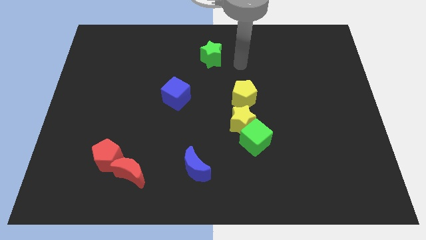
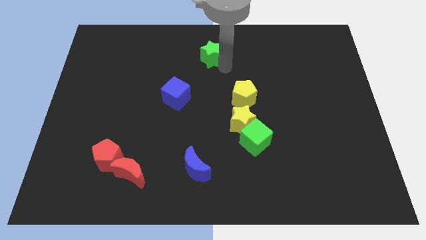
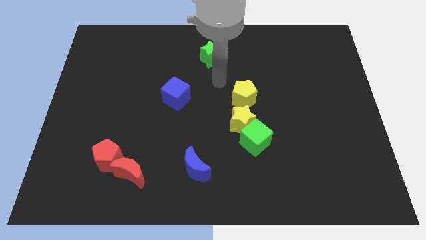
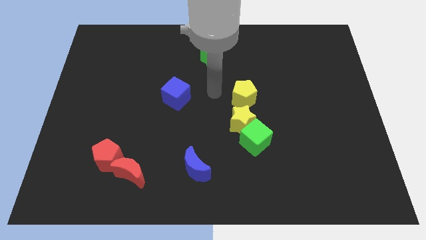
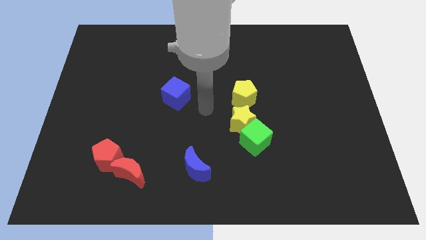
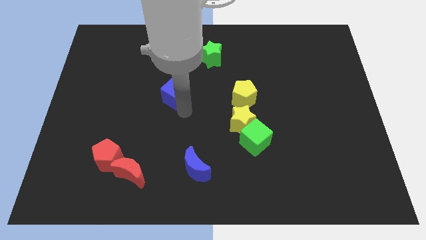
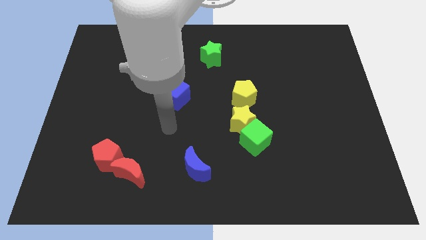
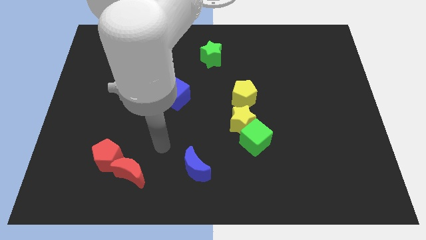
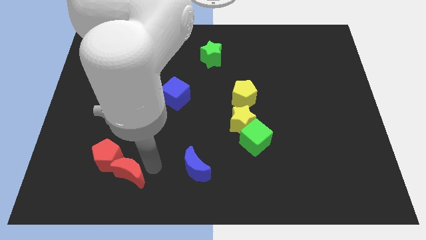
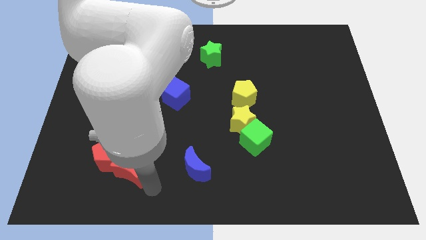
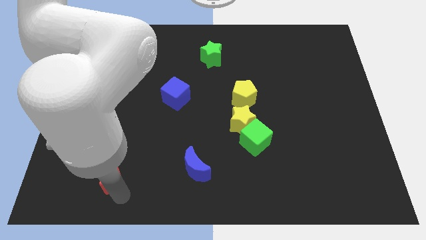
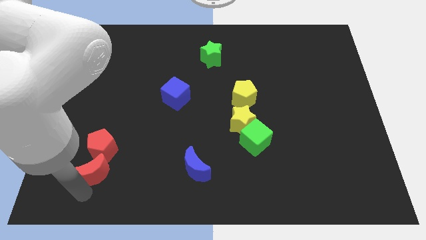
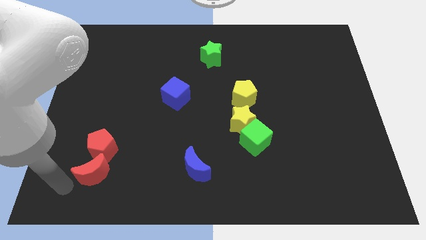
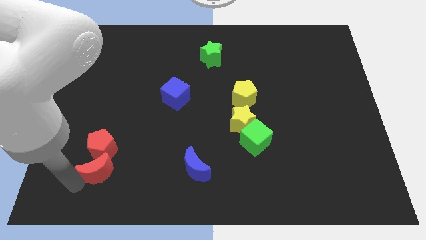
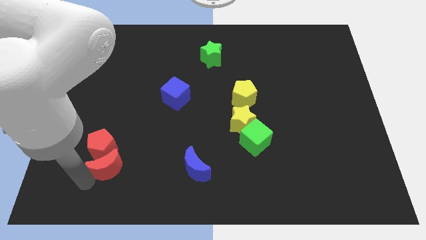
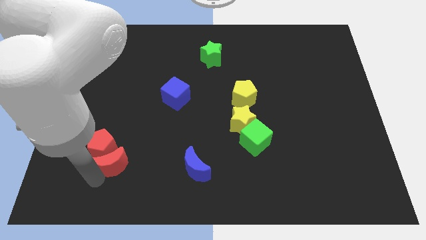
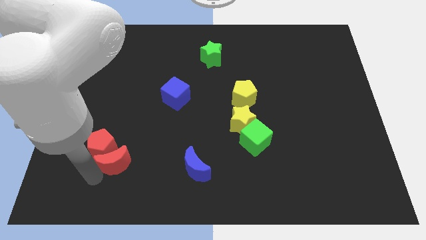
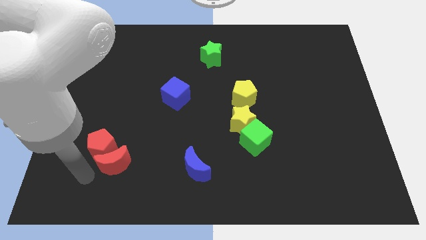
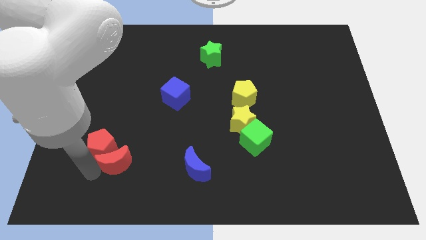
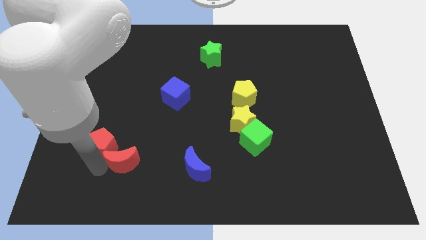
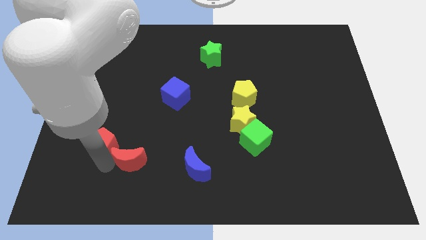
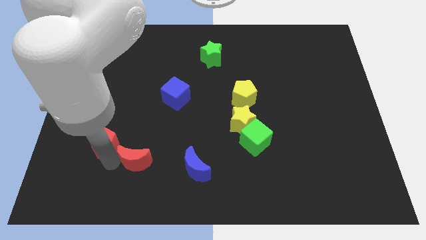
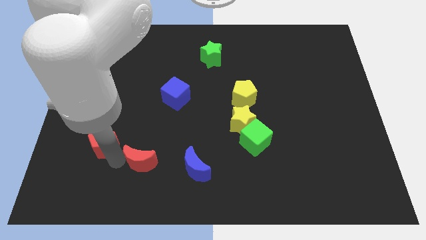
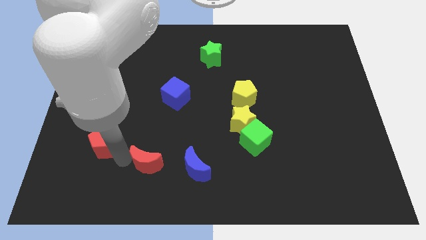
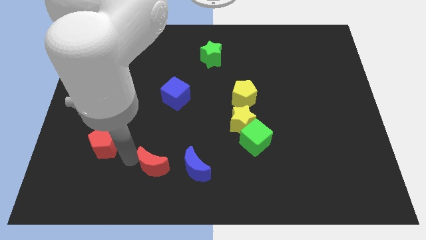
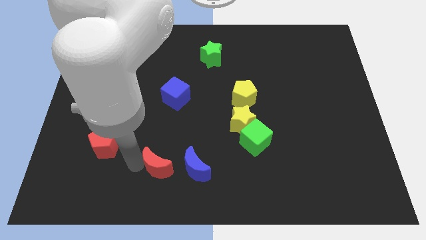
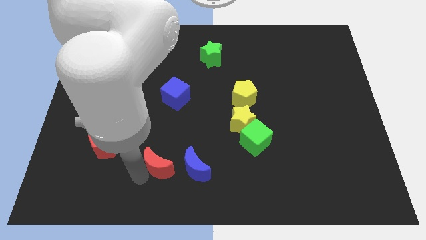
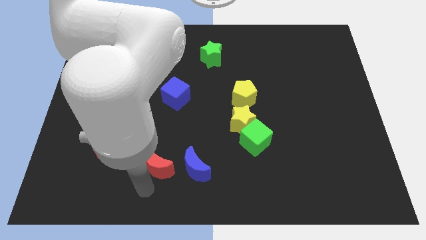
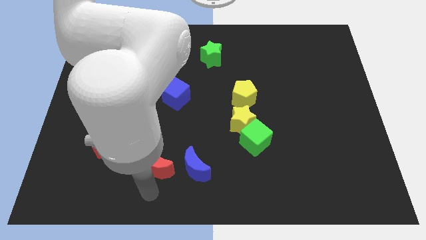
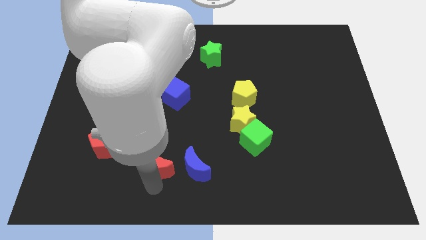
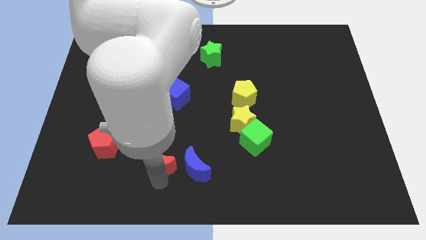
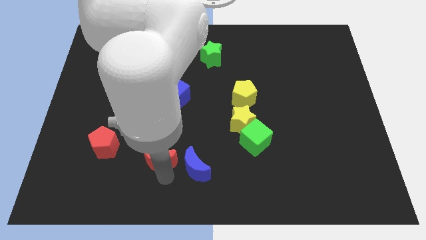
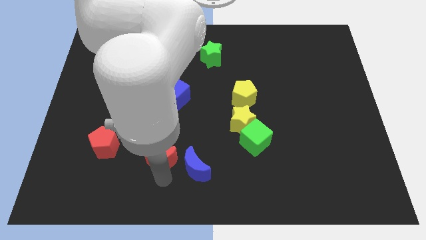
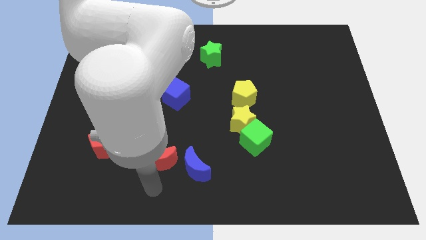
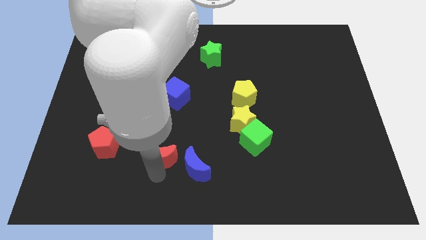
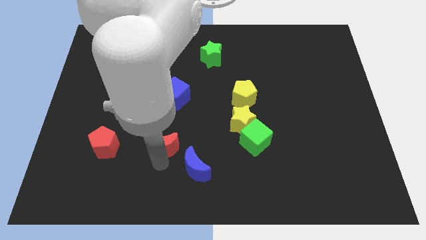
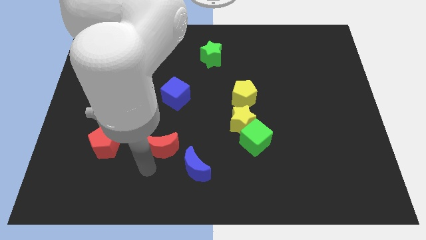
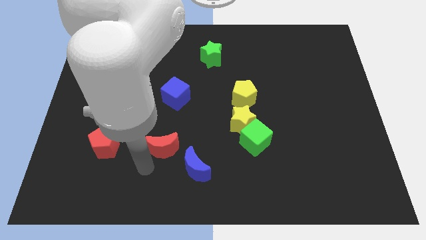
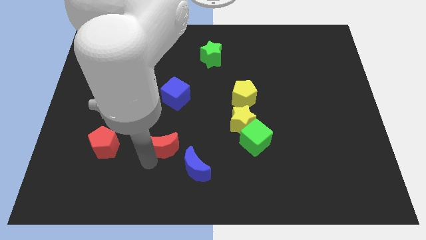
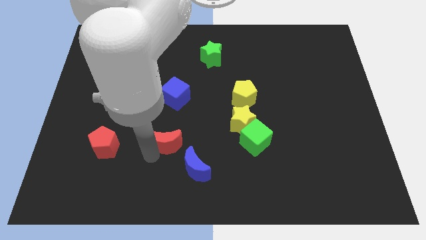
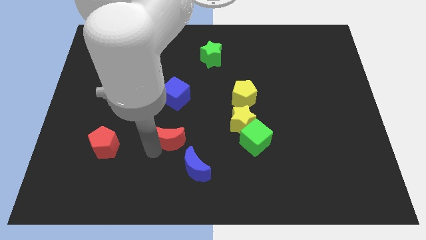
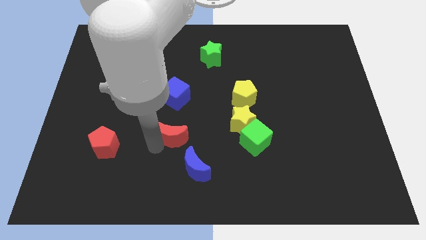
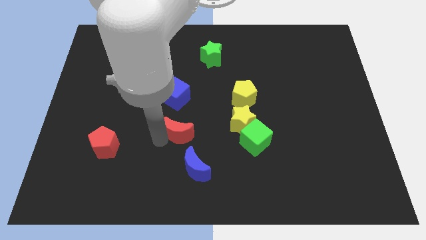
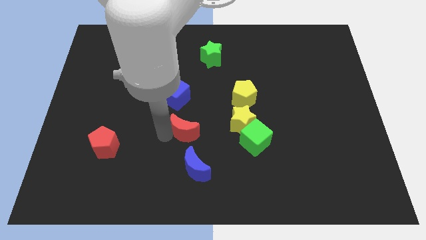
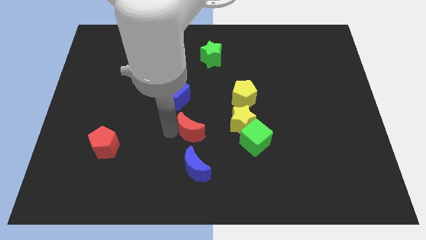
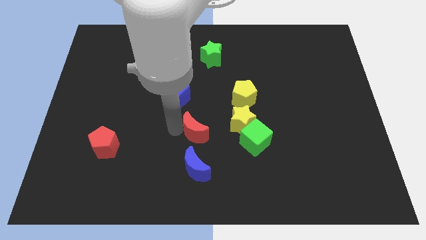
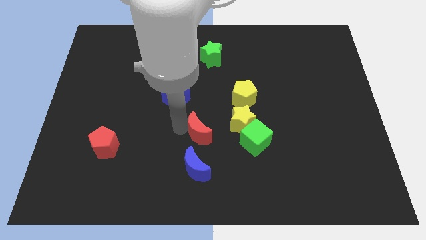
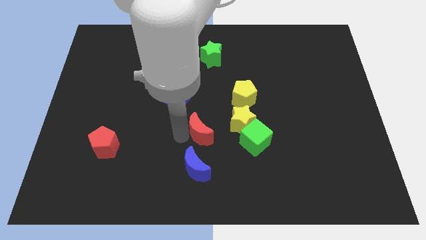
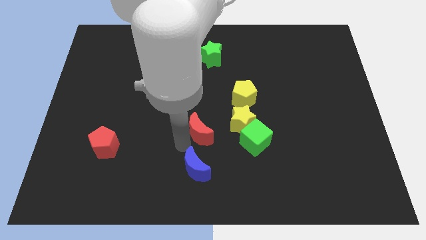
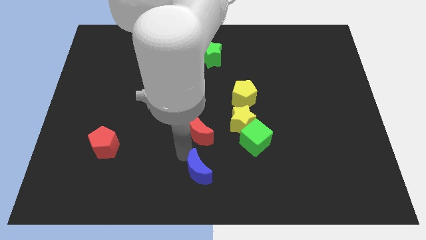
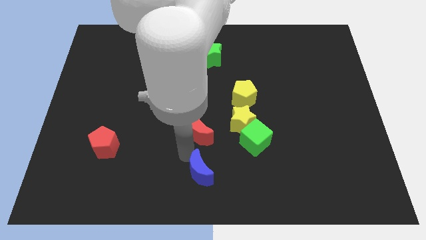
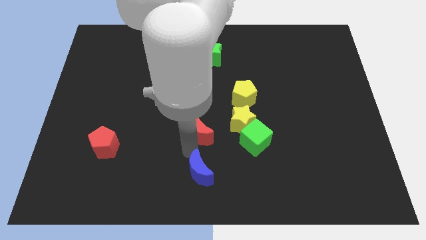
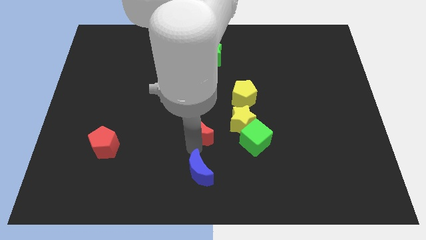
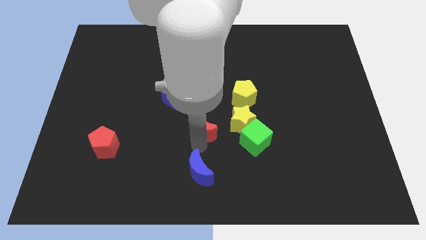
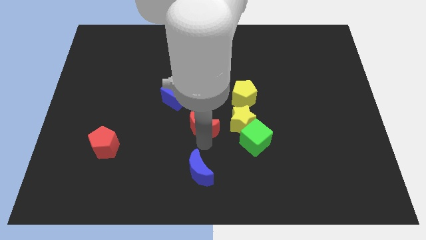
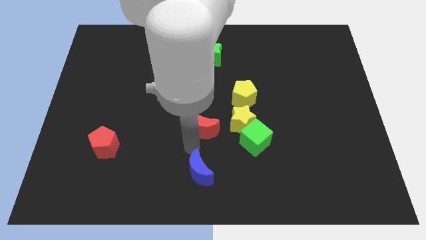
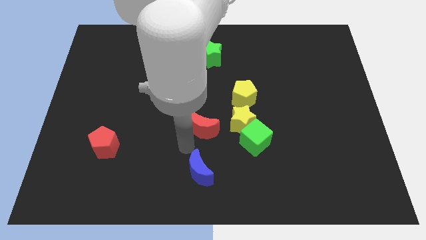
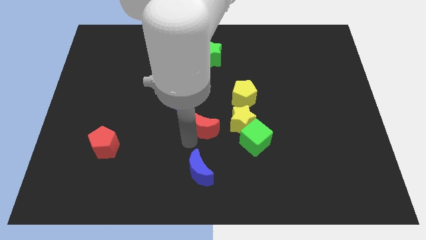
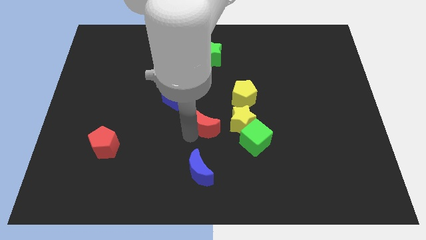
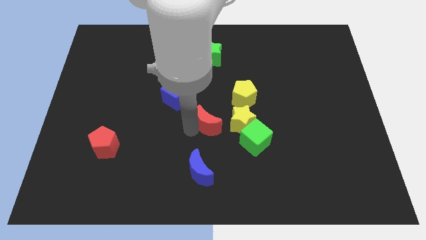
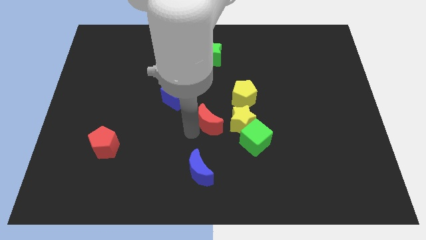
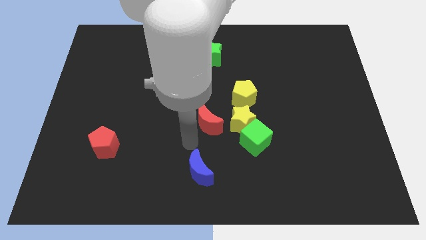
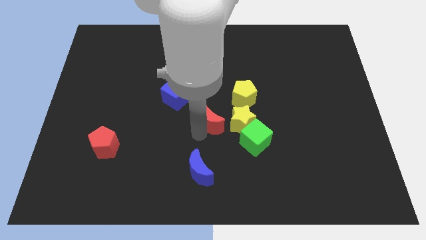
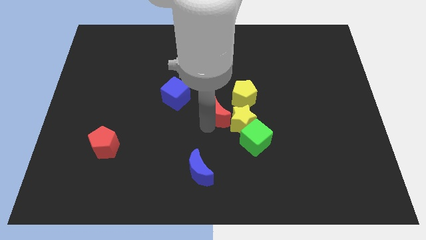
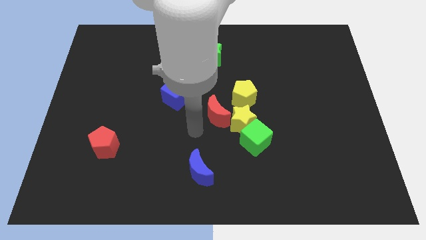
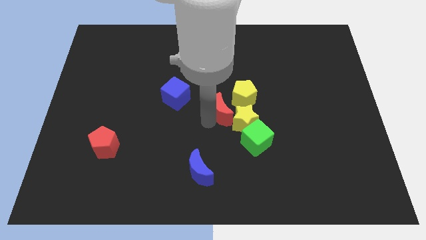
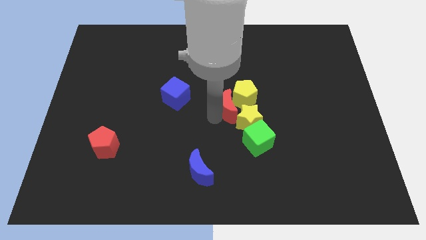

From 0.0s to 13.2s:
slide the red moon to the yellow pentagon

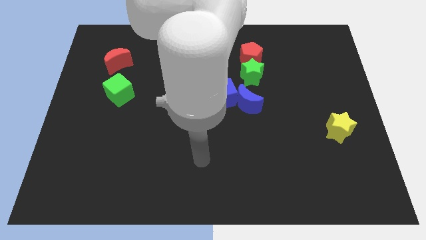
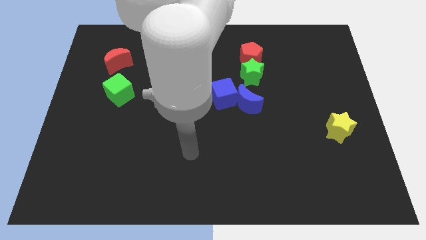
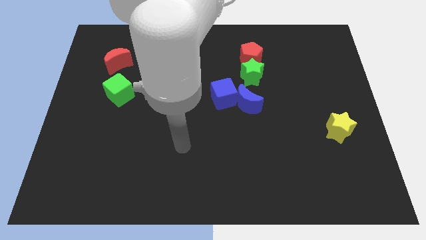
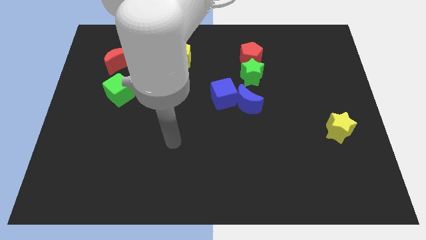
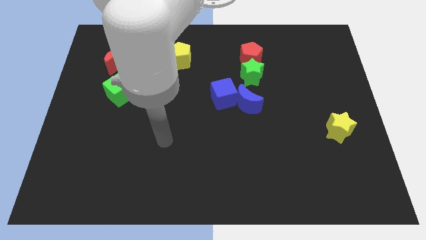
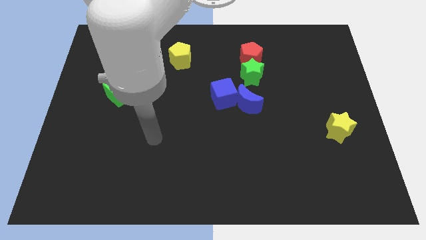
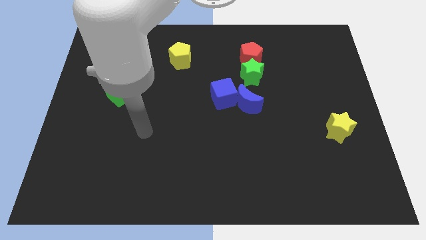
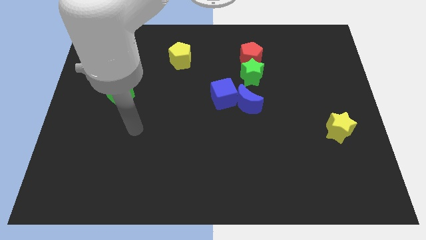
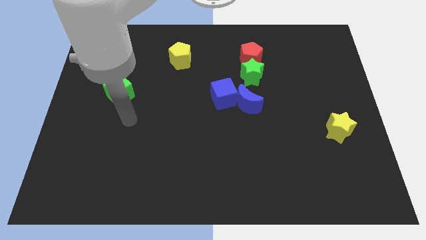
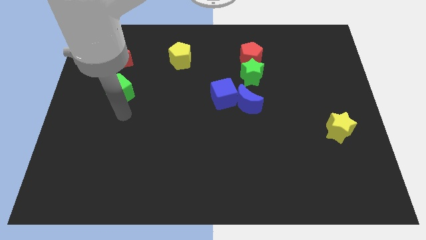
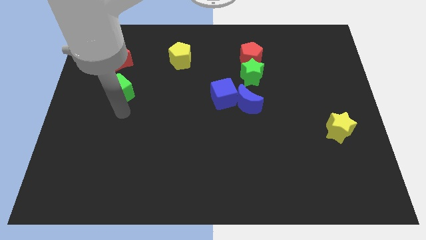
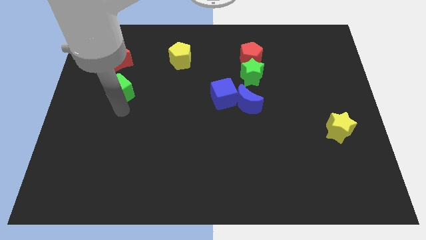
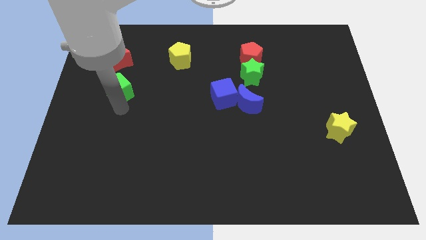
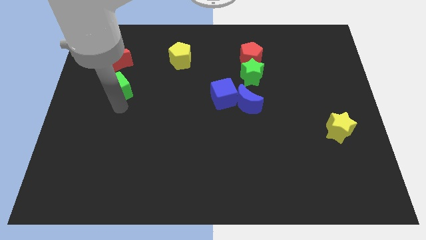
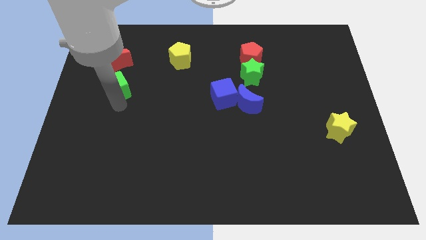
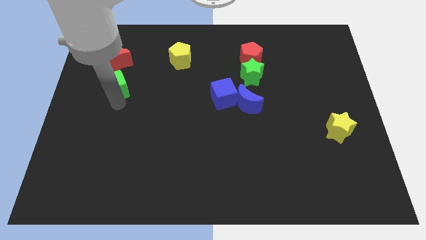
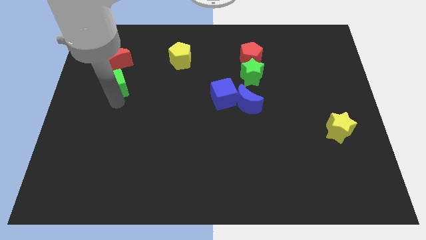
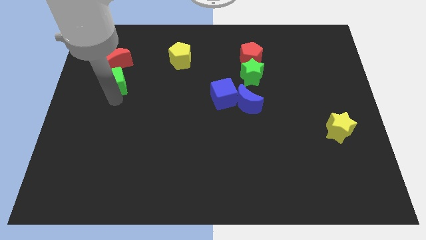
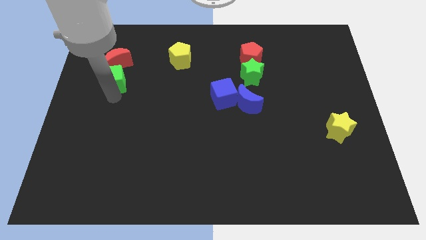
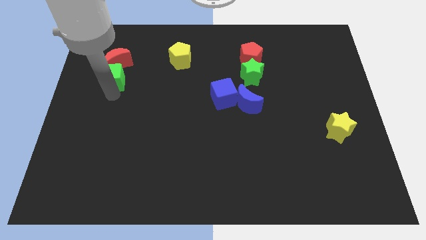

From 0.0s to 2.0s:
push the green cube close to the red moon
